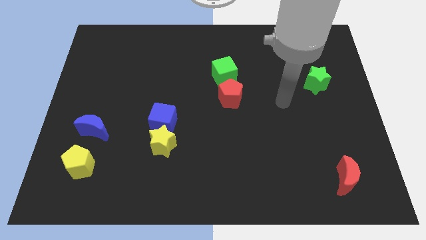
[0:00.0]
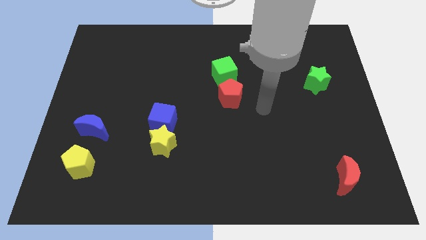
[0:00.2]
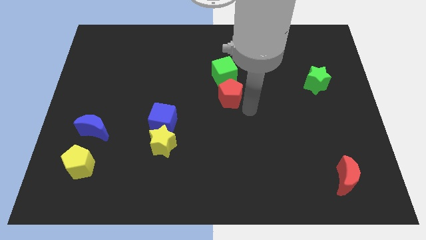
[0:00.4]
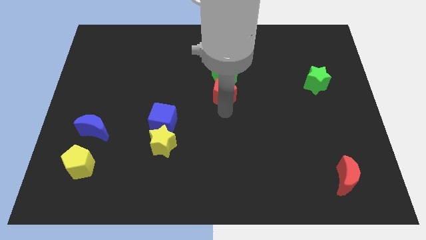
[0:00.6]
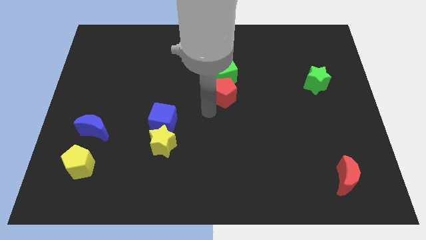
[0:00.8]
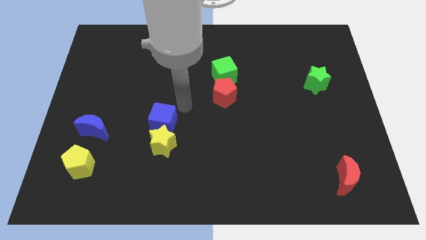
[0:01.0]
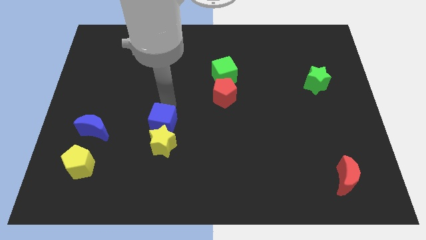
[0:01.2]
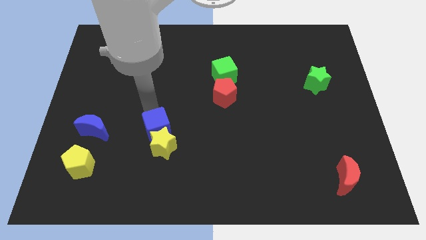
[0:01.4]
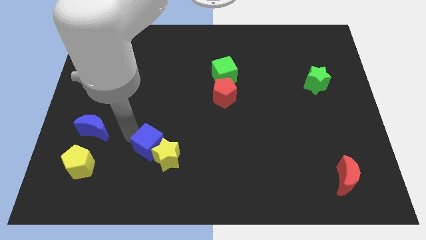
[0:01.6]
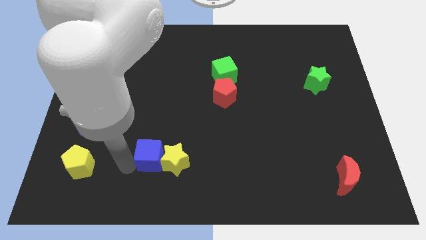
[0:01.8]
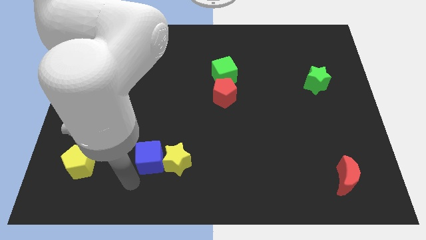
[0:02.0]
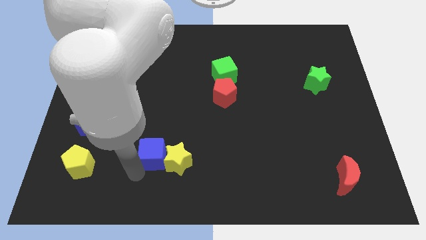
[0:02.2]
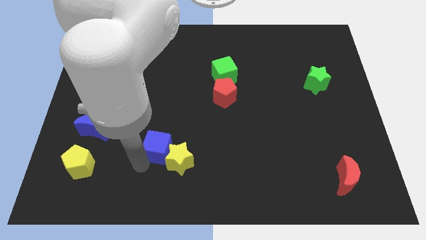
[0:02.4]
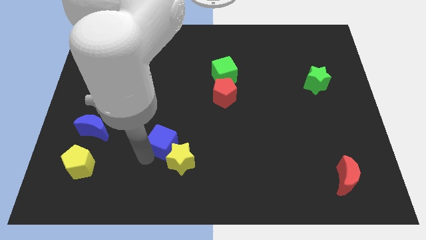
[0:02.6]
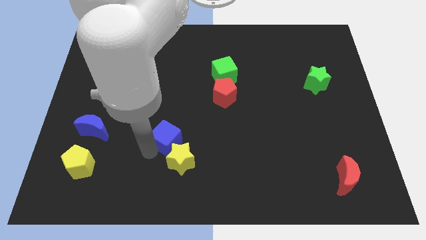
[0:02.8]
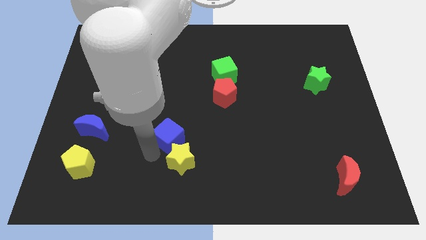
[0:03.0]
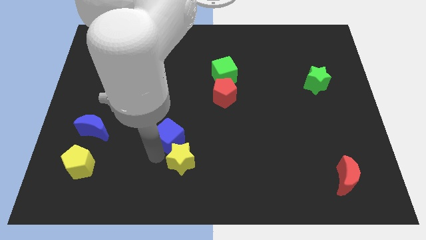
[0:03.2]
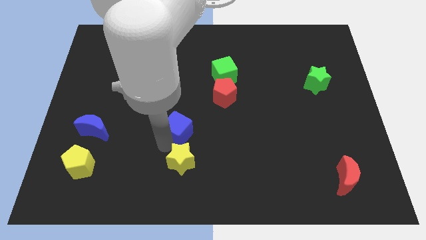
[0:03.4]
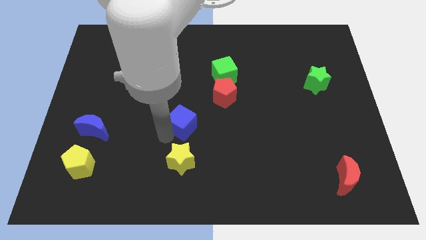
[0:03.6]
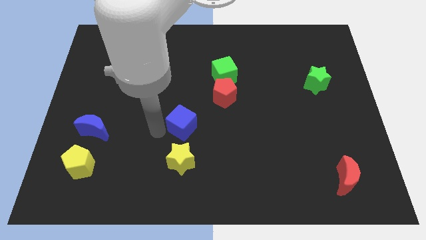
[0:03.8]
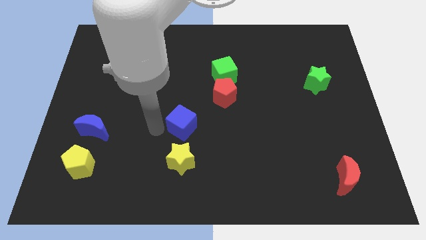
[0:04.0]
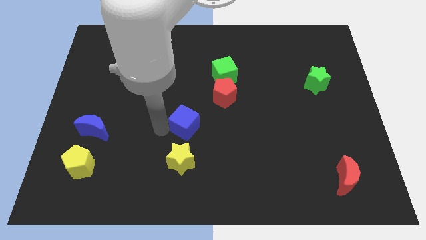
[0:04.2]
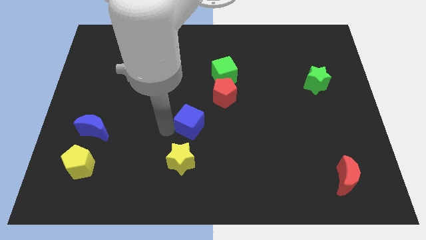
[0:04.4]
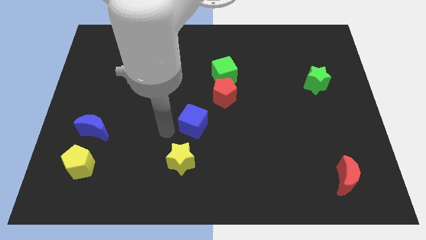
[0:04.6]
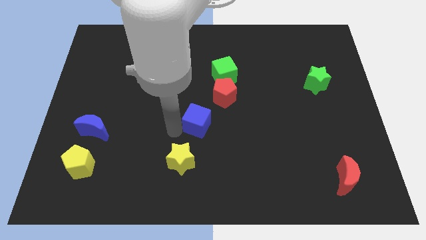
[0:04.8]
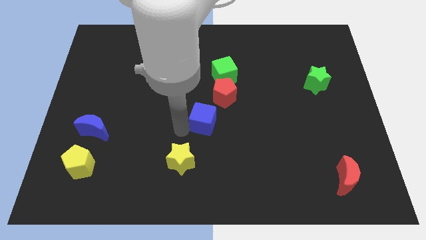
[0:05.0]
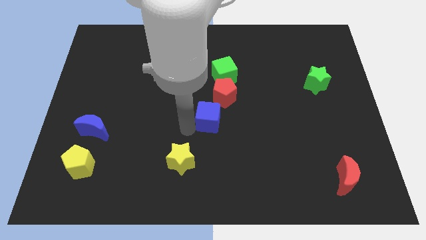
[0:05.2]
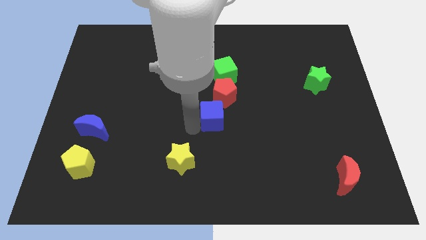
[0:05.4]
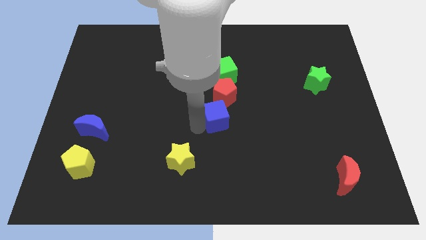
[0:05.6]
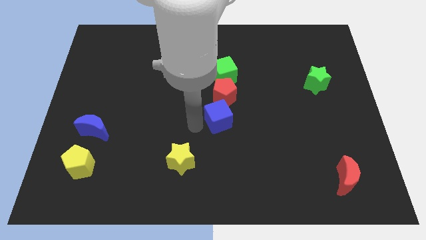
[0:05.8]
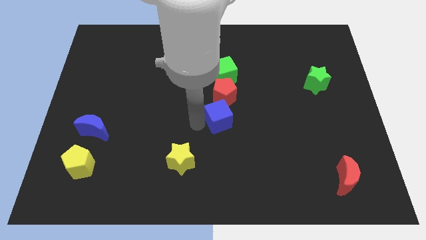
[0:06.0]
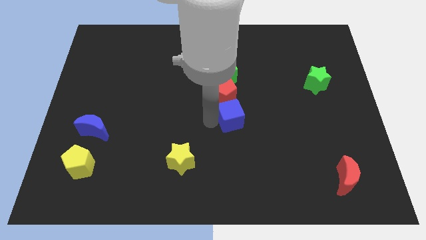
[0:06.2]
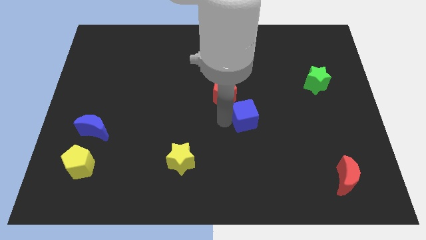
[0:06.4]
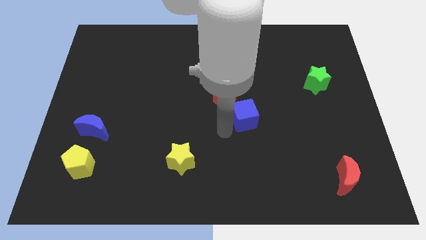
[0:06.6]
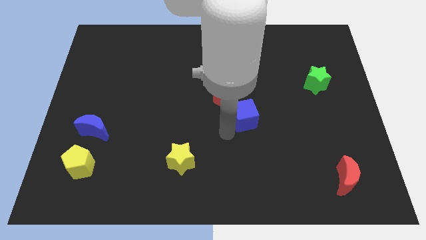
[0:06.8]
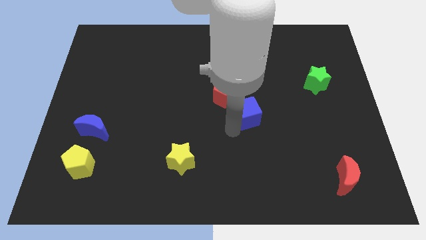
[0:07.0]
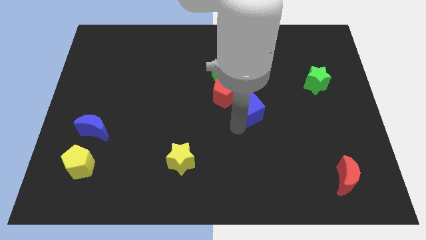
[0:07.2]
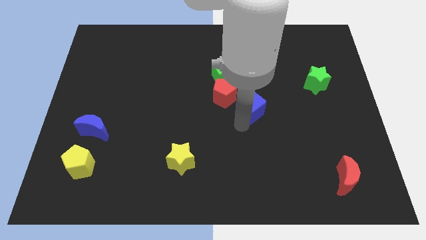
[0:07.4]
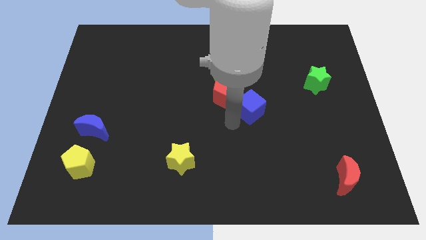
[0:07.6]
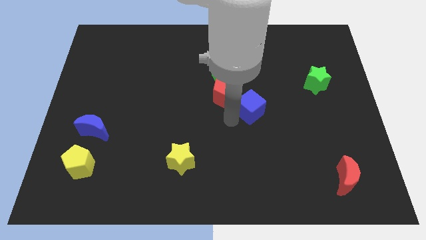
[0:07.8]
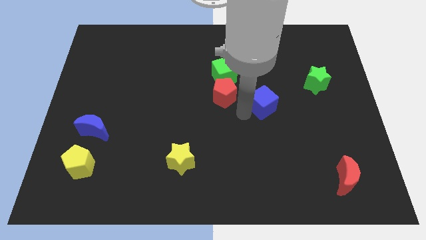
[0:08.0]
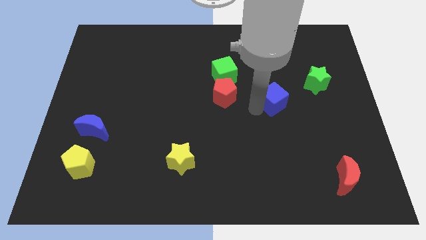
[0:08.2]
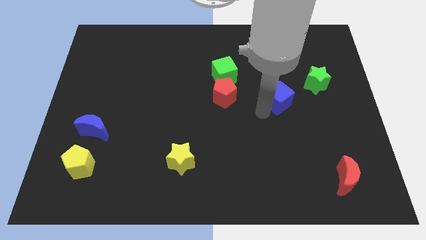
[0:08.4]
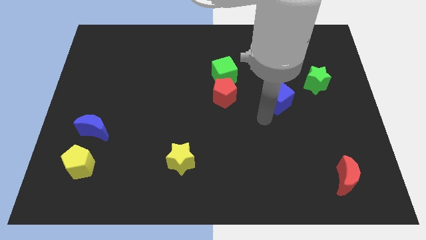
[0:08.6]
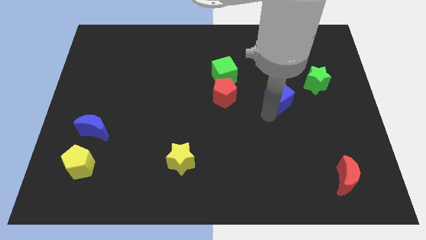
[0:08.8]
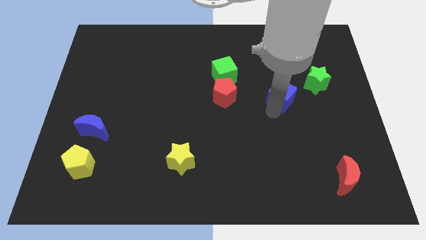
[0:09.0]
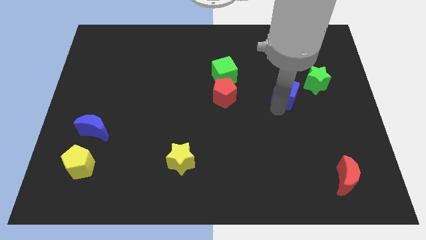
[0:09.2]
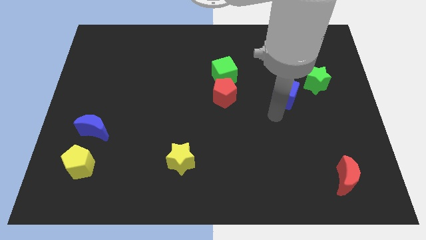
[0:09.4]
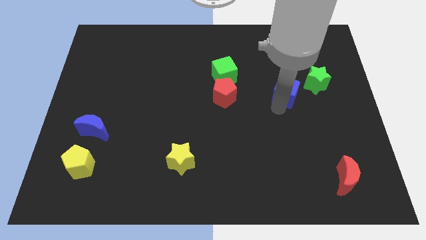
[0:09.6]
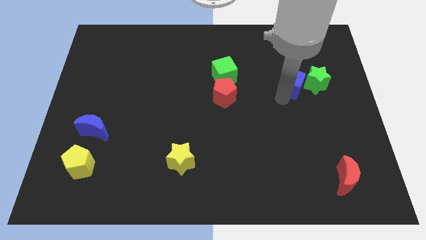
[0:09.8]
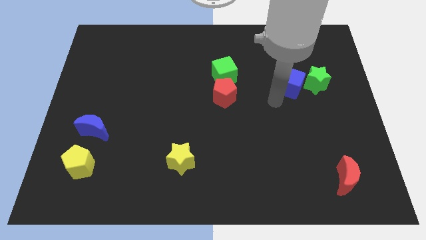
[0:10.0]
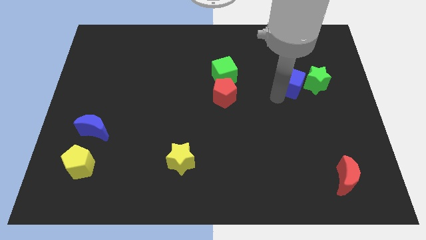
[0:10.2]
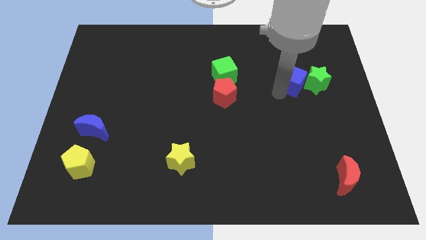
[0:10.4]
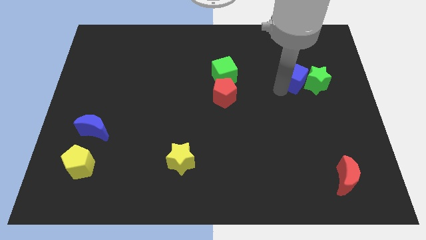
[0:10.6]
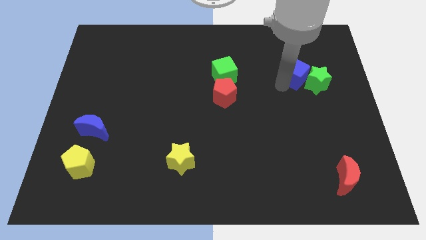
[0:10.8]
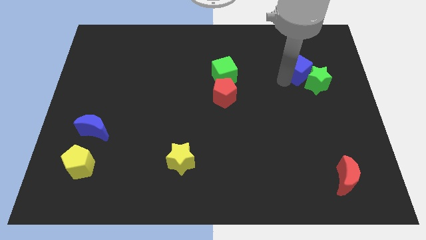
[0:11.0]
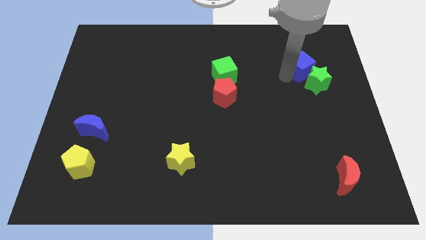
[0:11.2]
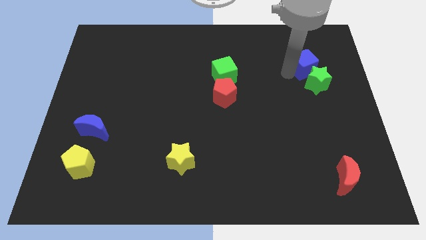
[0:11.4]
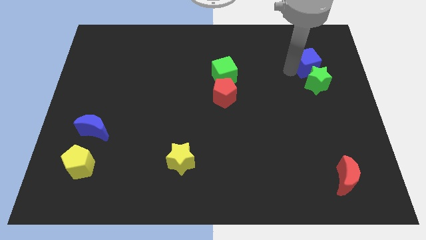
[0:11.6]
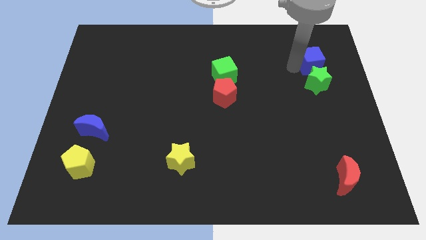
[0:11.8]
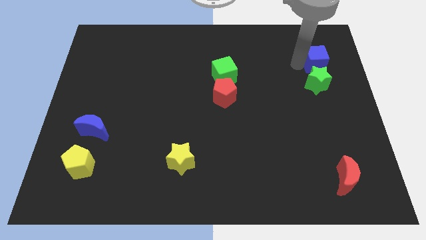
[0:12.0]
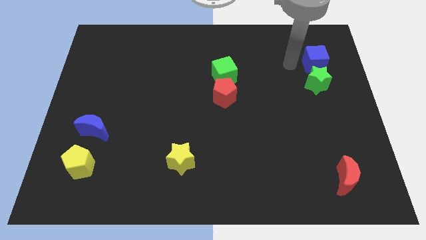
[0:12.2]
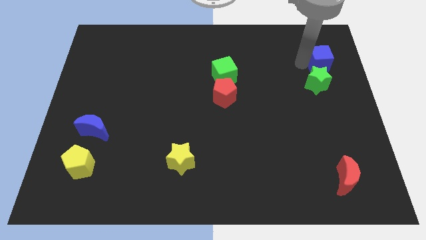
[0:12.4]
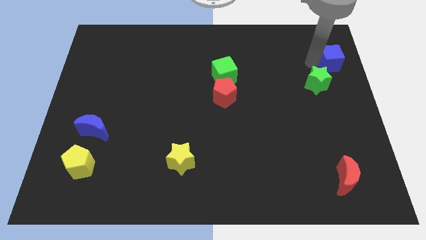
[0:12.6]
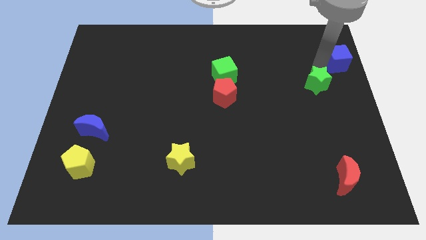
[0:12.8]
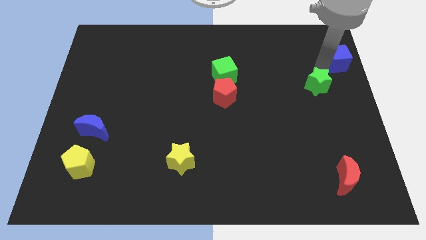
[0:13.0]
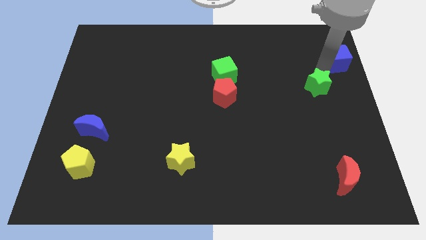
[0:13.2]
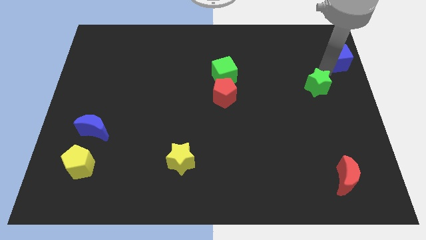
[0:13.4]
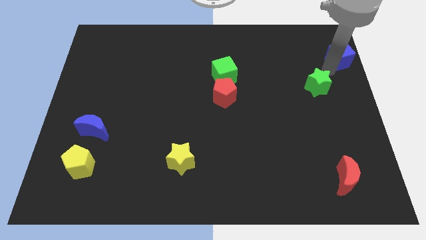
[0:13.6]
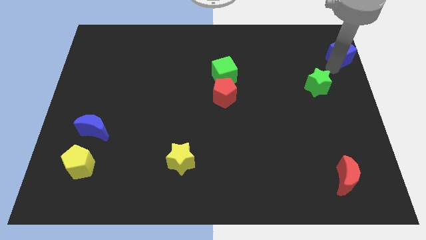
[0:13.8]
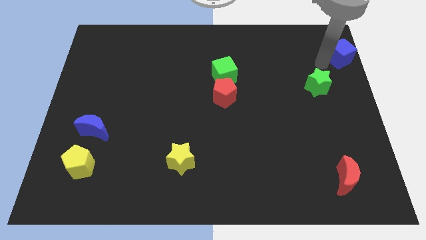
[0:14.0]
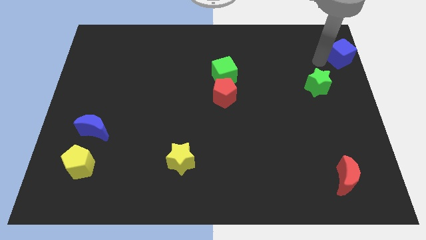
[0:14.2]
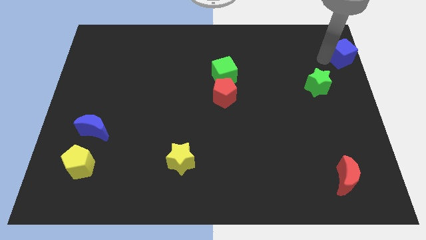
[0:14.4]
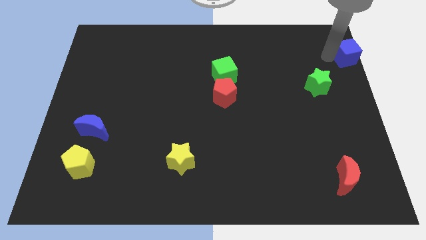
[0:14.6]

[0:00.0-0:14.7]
slide the blue cube to the upper right corner
